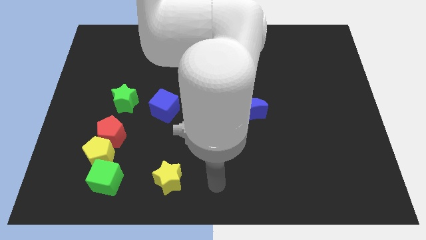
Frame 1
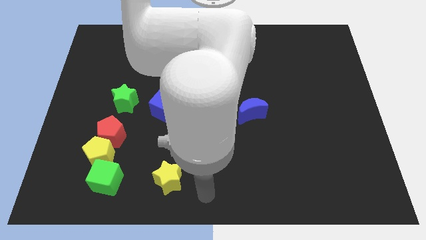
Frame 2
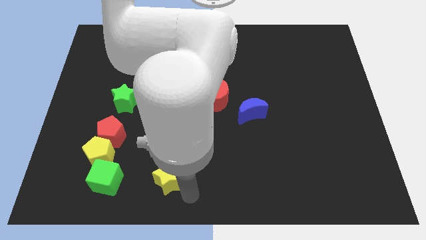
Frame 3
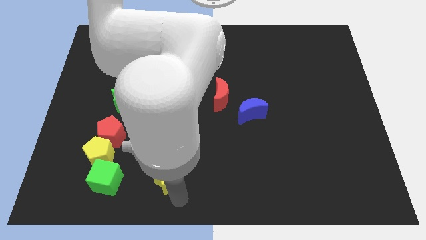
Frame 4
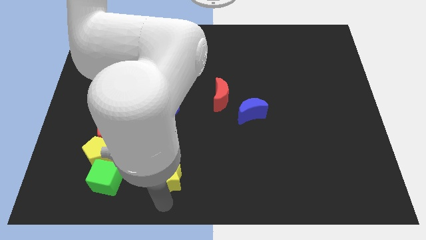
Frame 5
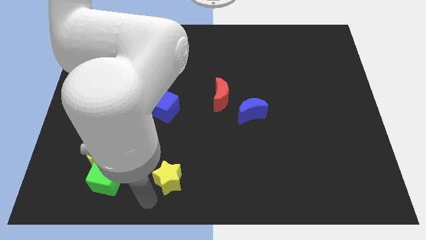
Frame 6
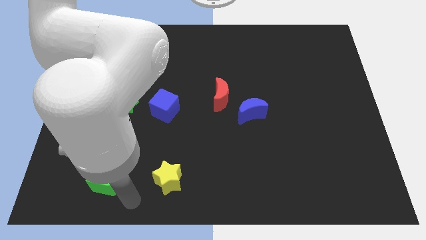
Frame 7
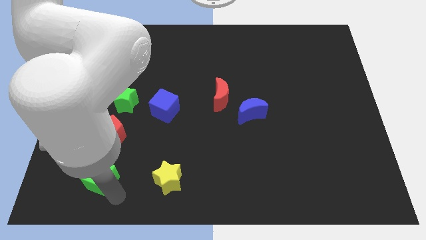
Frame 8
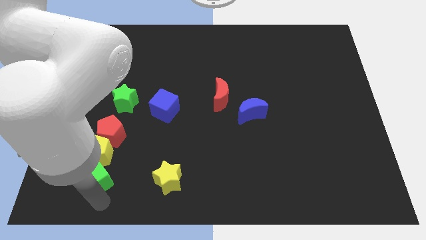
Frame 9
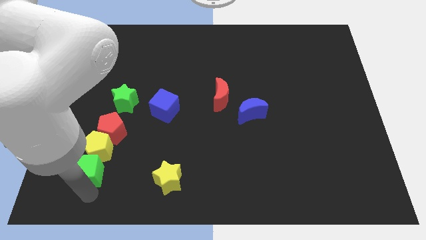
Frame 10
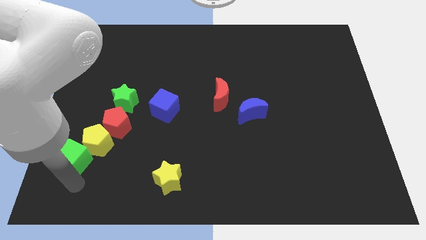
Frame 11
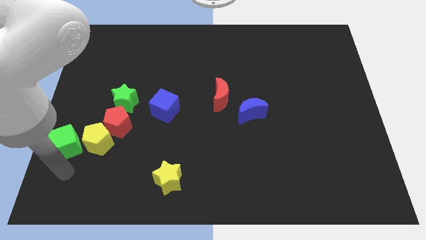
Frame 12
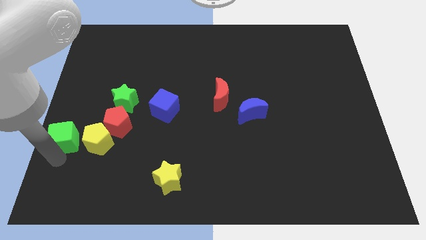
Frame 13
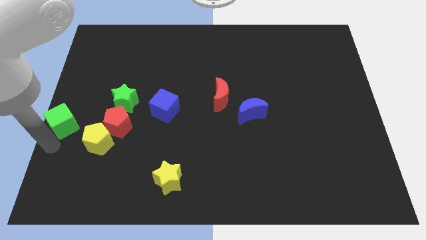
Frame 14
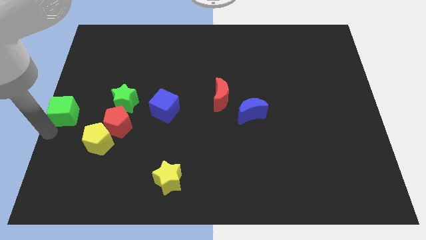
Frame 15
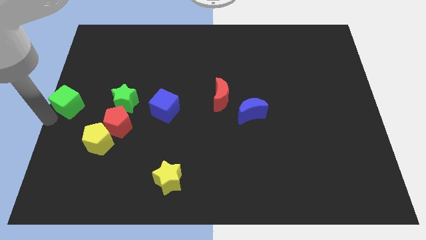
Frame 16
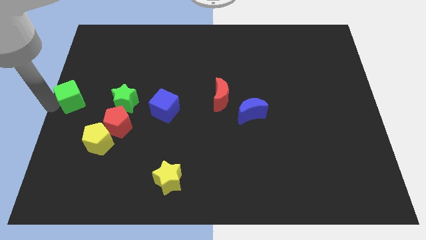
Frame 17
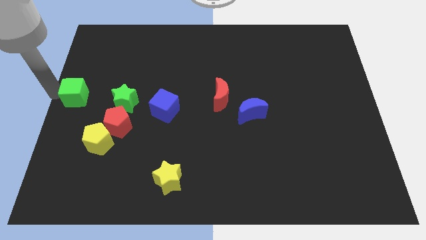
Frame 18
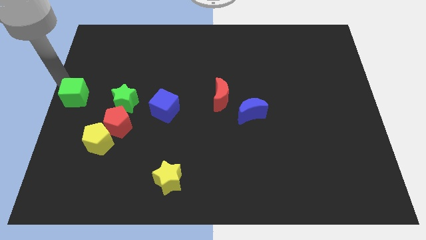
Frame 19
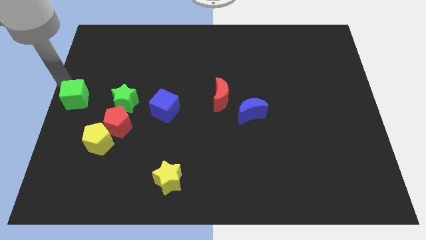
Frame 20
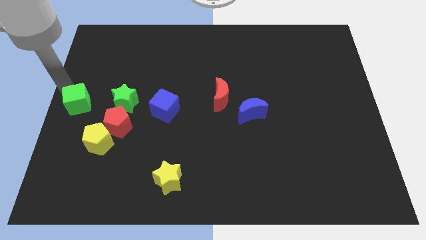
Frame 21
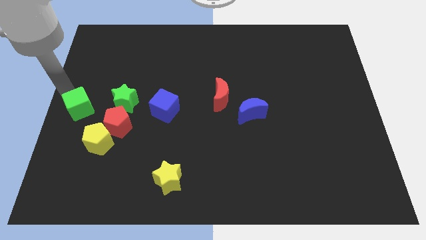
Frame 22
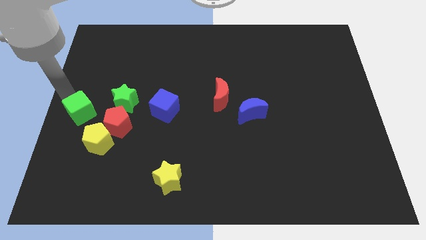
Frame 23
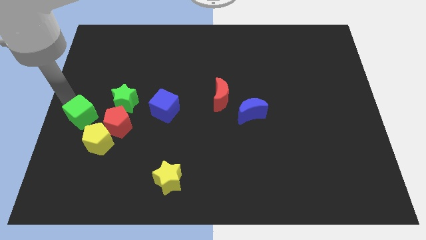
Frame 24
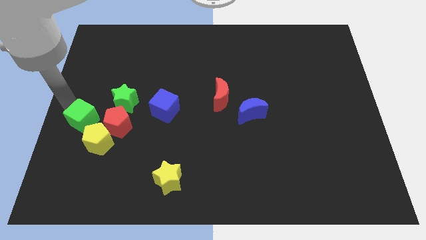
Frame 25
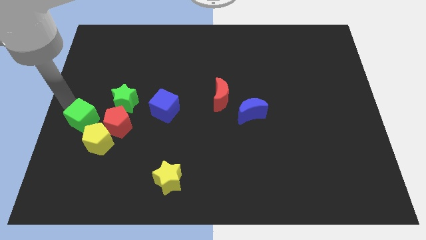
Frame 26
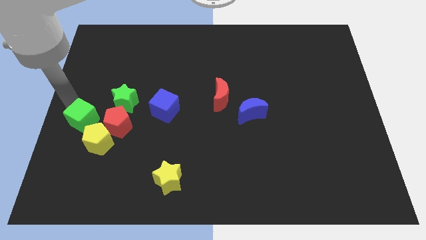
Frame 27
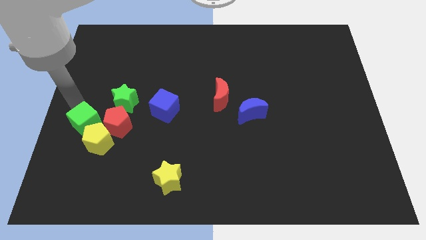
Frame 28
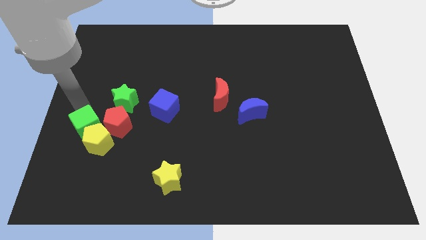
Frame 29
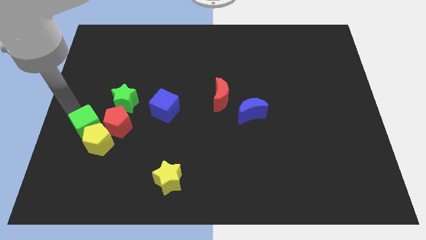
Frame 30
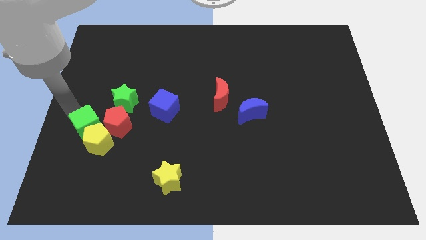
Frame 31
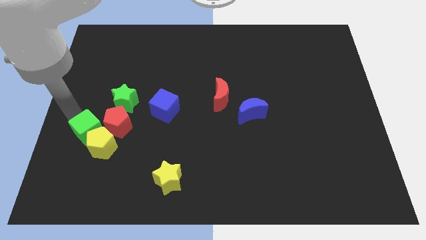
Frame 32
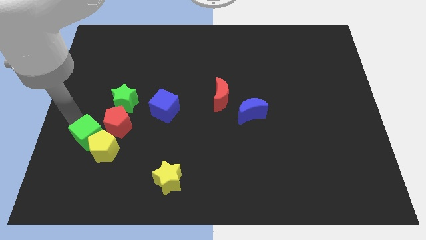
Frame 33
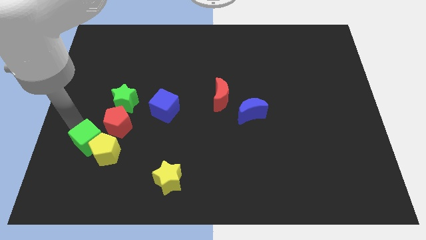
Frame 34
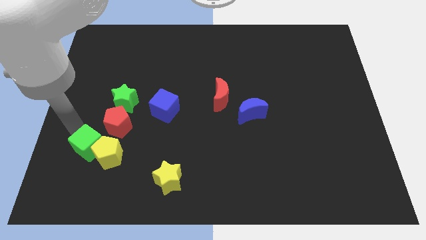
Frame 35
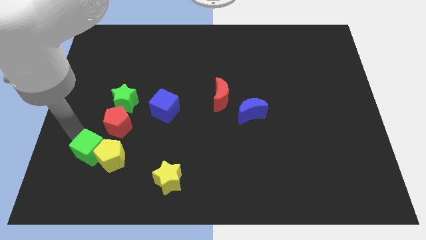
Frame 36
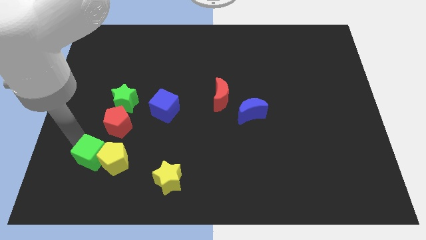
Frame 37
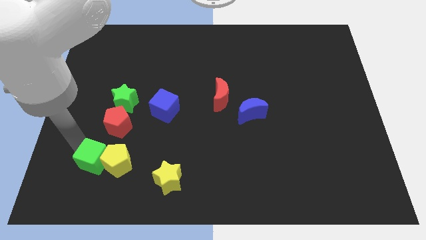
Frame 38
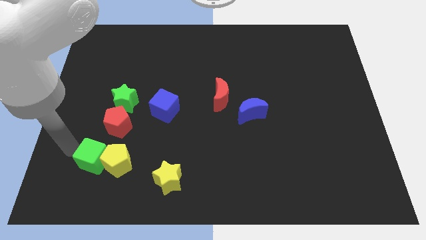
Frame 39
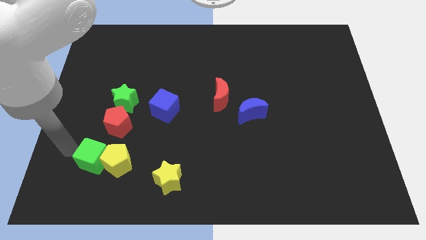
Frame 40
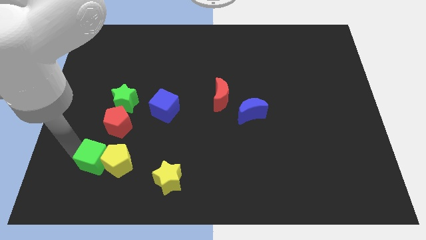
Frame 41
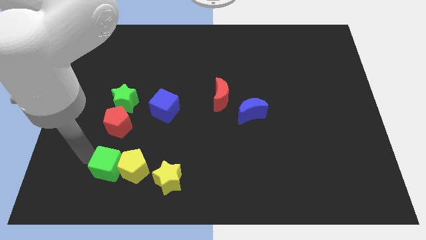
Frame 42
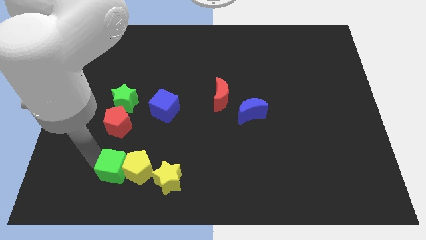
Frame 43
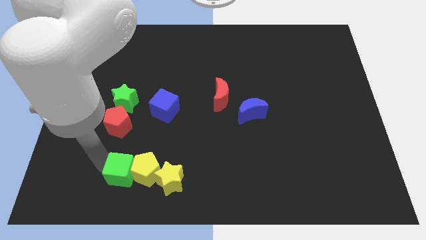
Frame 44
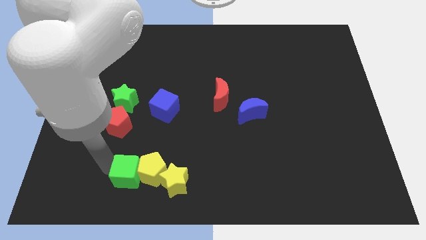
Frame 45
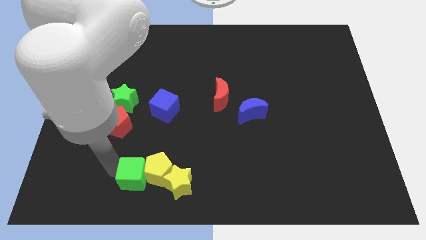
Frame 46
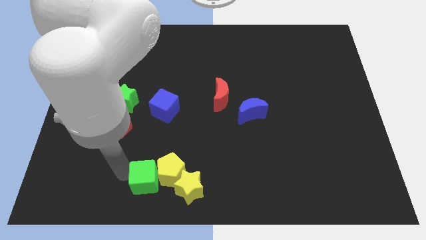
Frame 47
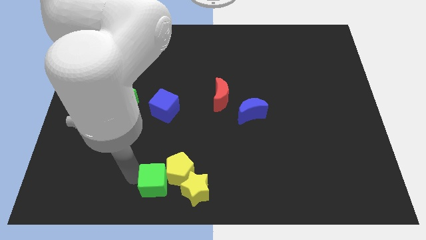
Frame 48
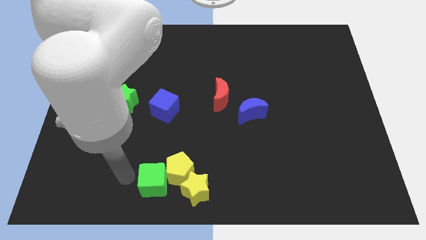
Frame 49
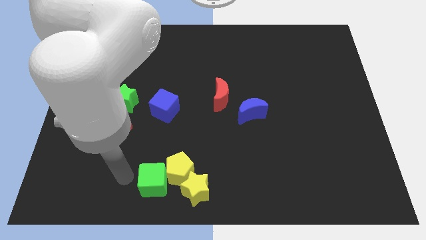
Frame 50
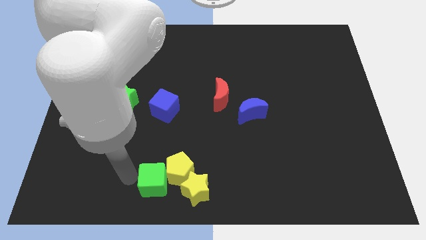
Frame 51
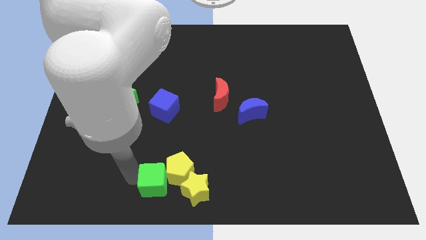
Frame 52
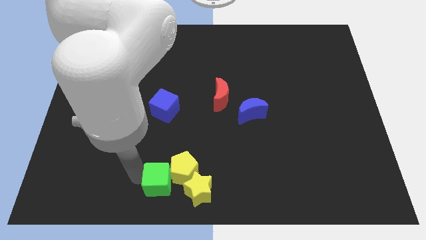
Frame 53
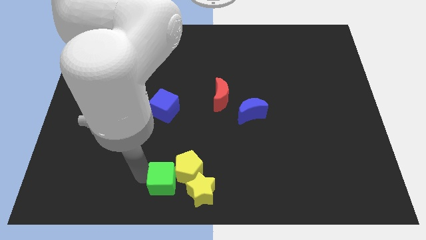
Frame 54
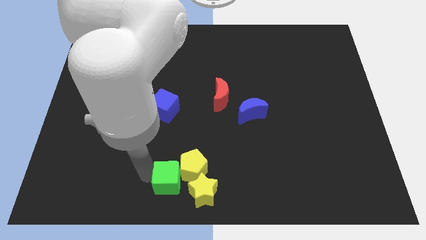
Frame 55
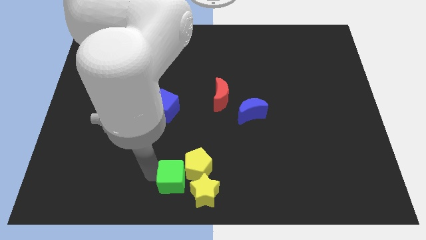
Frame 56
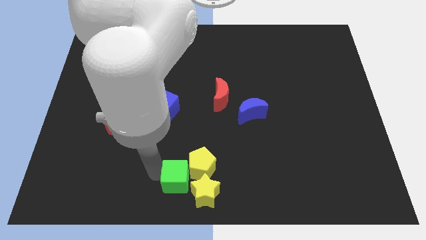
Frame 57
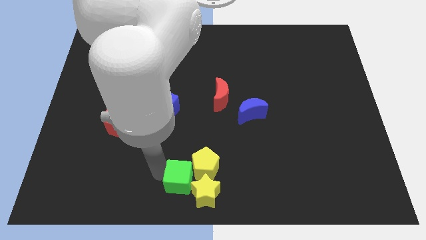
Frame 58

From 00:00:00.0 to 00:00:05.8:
slide the green cube to the yellow star

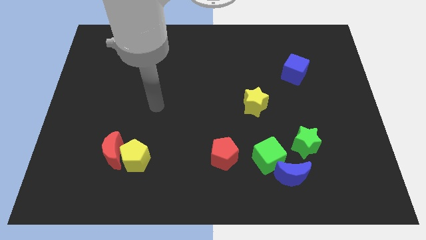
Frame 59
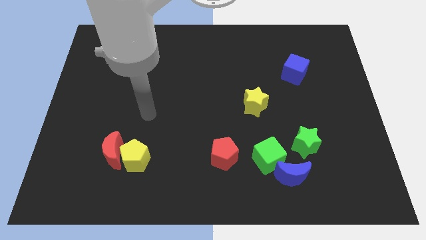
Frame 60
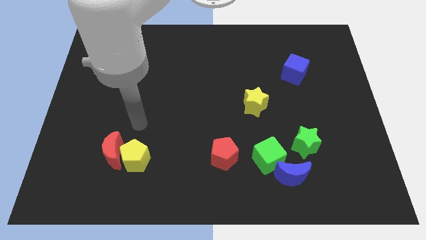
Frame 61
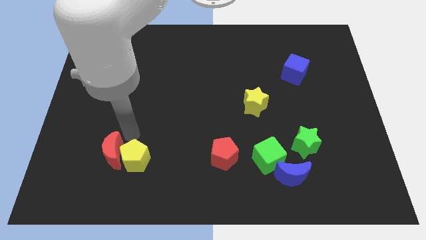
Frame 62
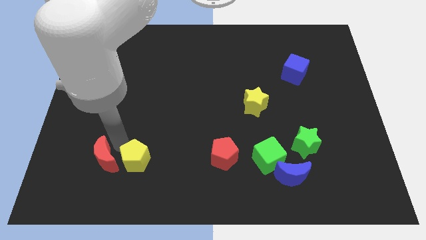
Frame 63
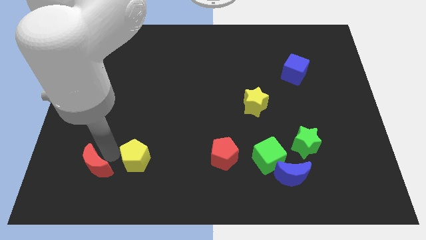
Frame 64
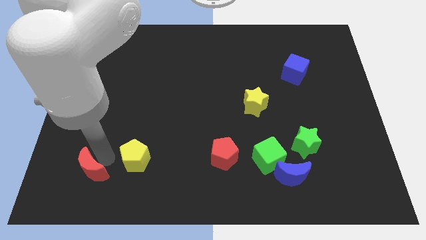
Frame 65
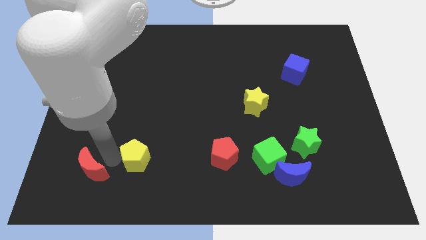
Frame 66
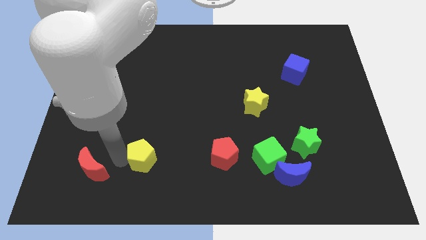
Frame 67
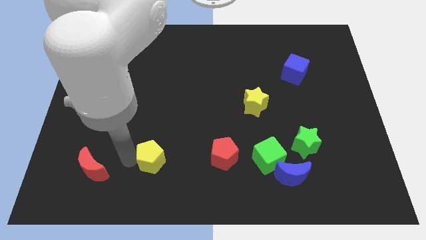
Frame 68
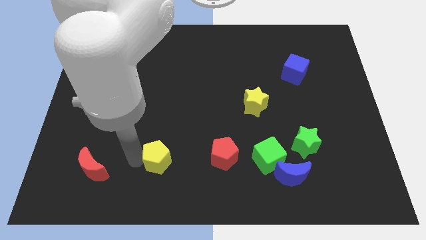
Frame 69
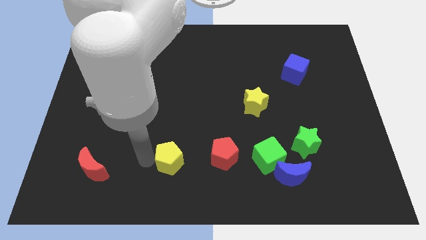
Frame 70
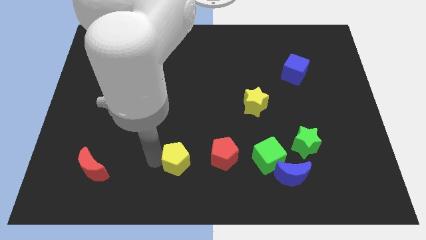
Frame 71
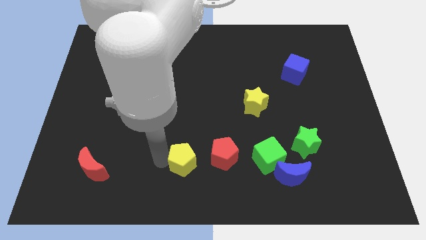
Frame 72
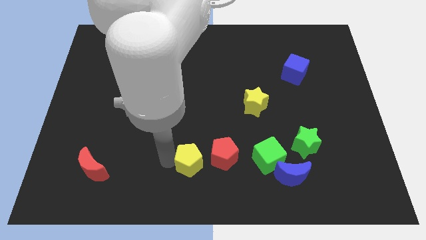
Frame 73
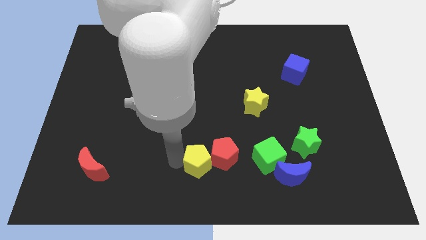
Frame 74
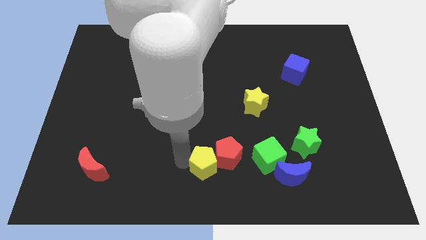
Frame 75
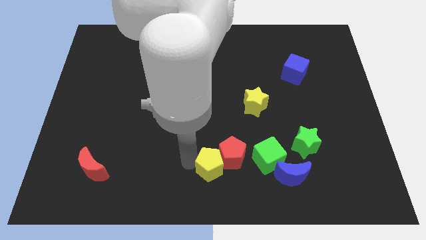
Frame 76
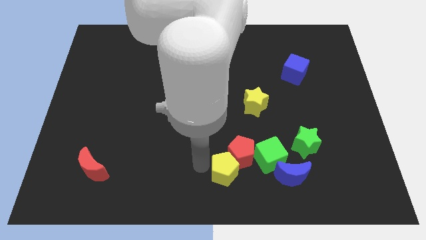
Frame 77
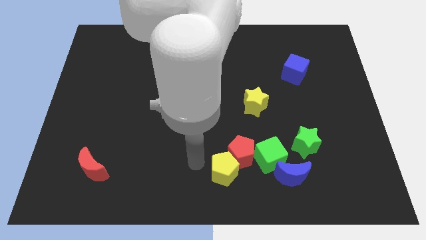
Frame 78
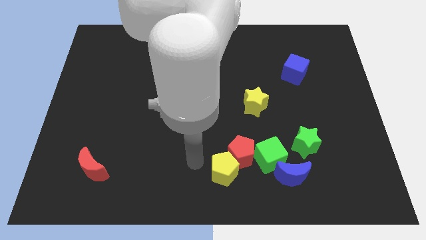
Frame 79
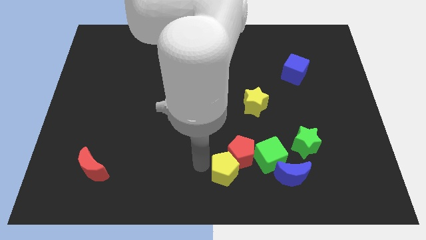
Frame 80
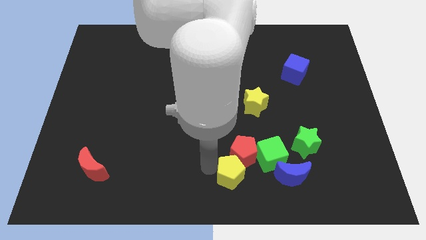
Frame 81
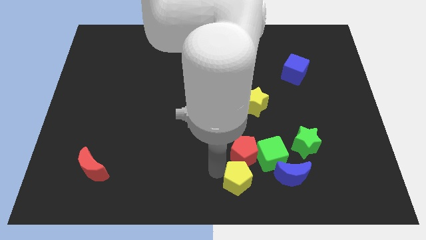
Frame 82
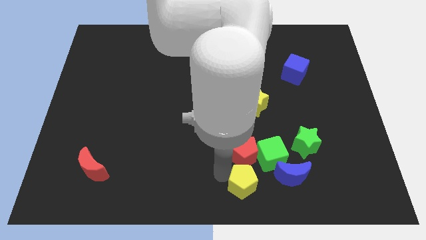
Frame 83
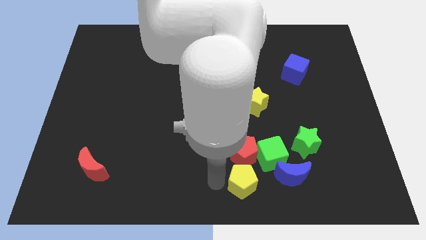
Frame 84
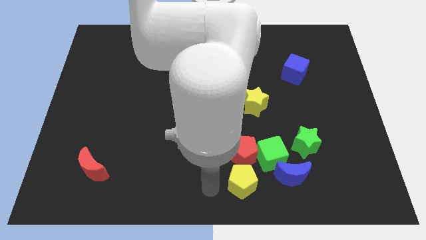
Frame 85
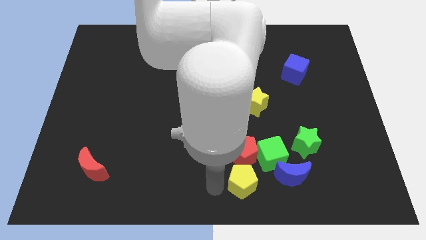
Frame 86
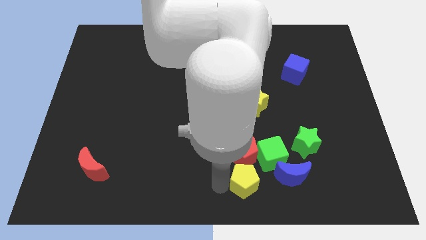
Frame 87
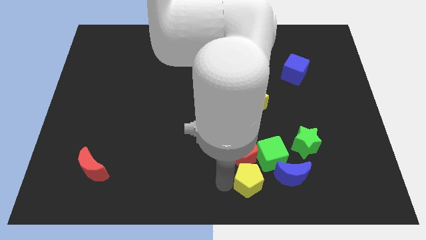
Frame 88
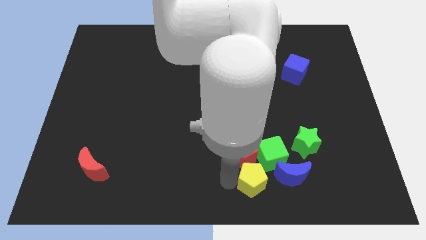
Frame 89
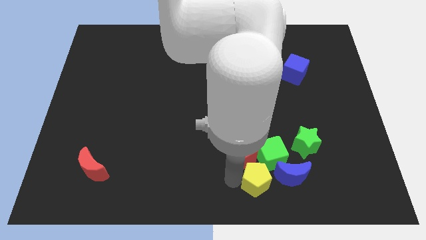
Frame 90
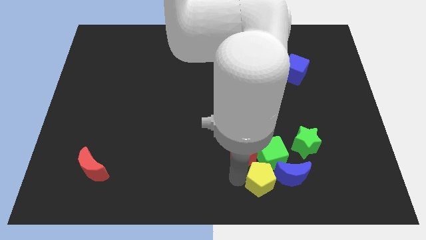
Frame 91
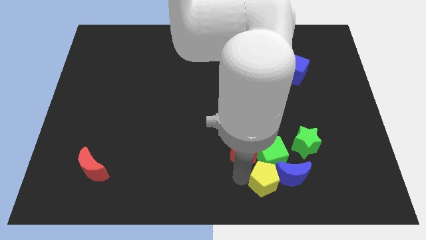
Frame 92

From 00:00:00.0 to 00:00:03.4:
slide the yellow pentagon to the blue moon
